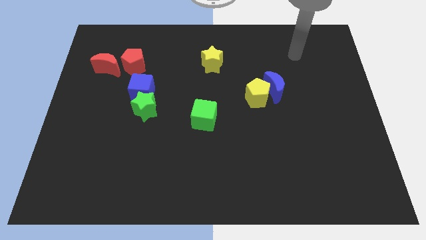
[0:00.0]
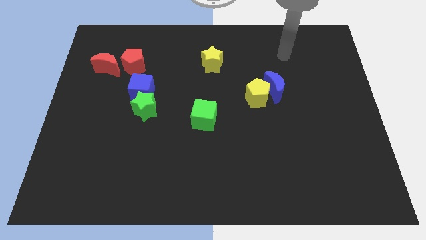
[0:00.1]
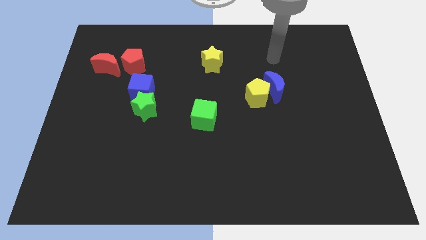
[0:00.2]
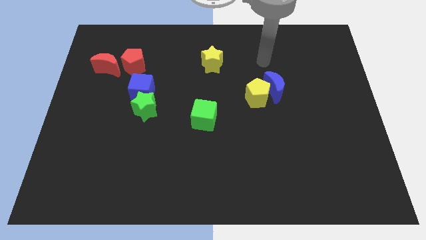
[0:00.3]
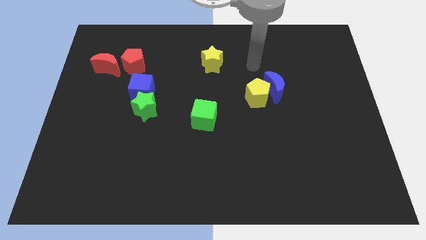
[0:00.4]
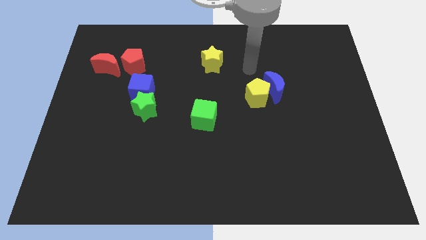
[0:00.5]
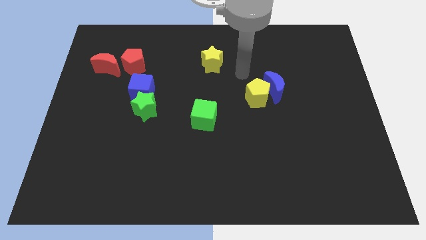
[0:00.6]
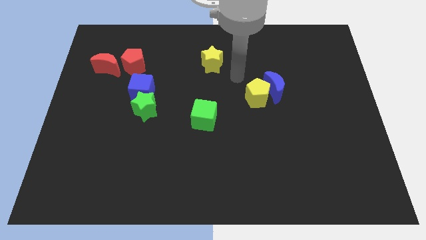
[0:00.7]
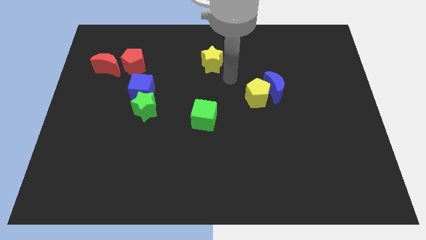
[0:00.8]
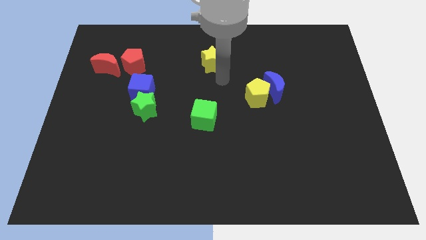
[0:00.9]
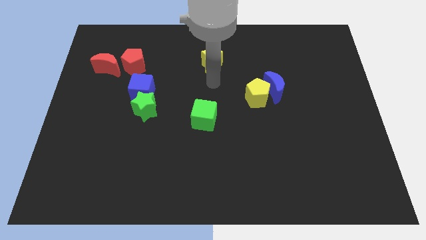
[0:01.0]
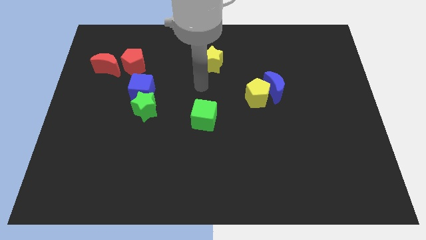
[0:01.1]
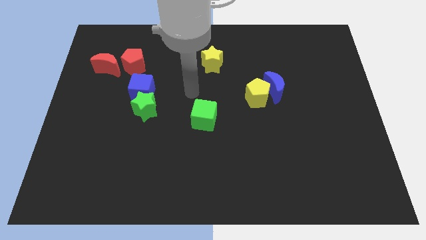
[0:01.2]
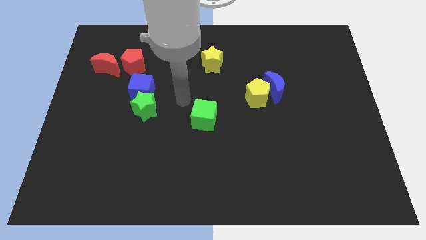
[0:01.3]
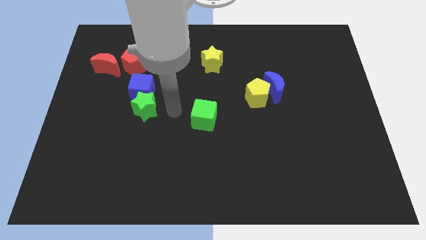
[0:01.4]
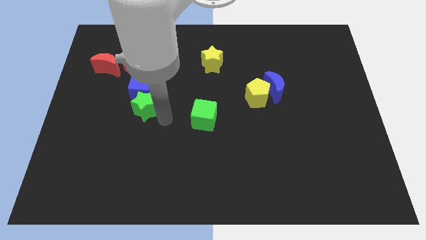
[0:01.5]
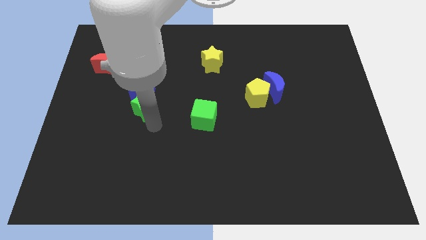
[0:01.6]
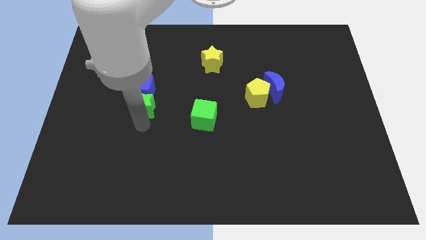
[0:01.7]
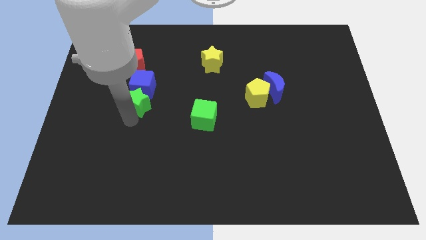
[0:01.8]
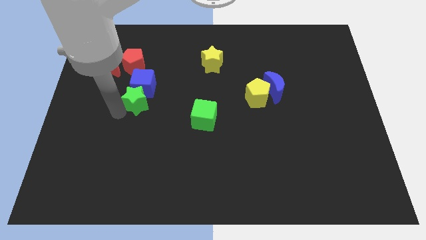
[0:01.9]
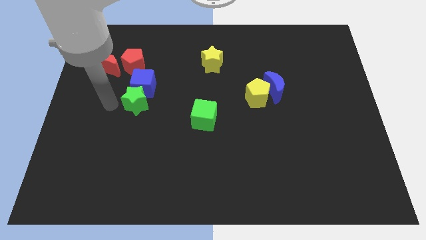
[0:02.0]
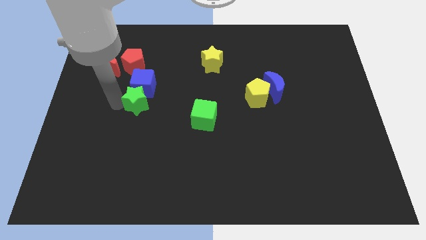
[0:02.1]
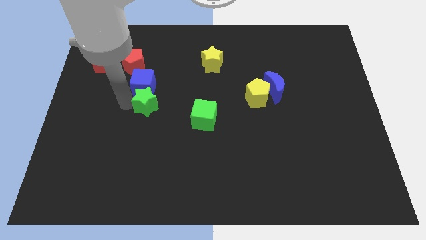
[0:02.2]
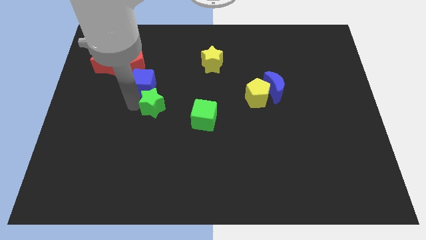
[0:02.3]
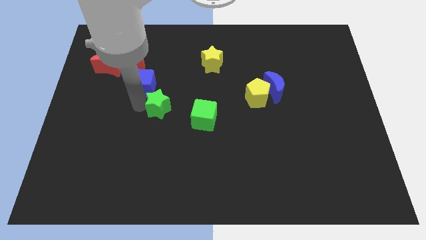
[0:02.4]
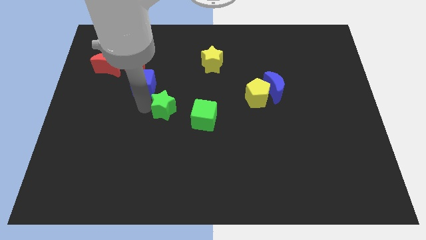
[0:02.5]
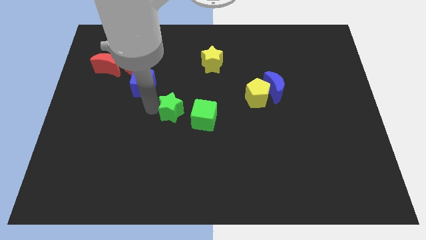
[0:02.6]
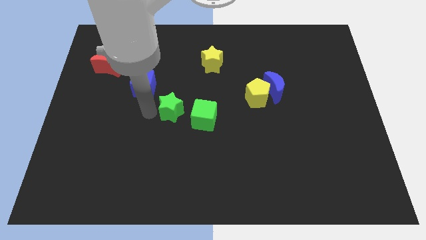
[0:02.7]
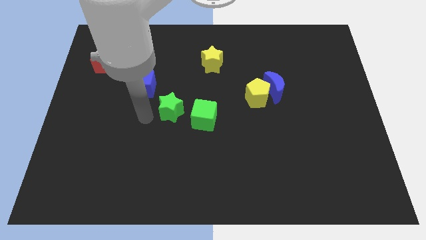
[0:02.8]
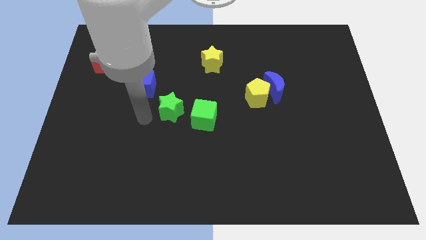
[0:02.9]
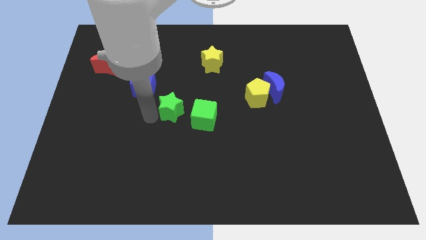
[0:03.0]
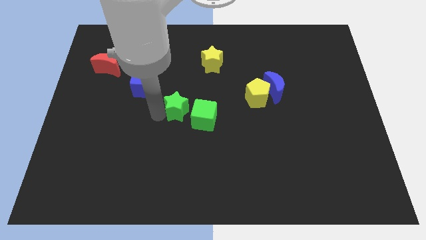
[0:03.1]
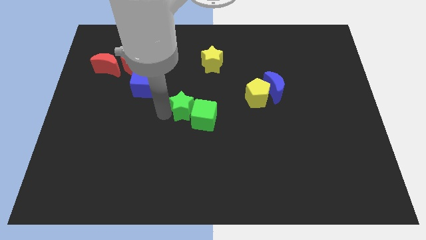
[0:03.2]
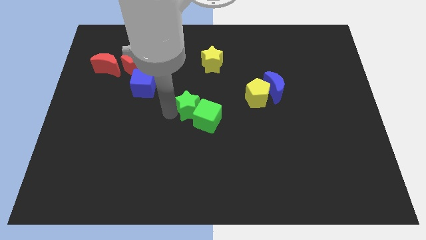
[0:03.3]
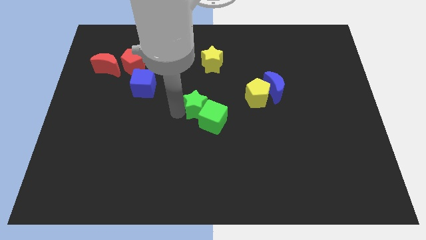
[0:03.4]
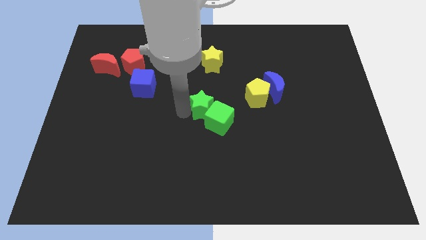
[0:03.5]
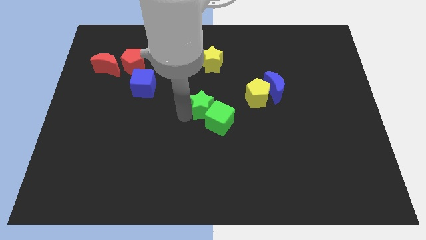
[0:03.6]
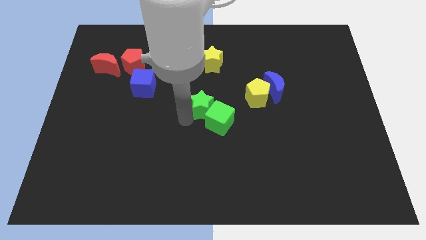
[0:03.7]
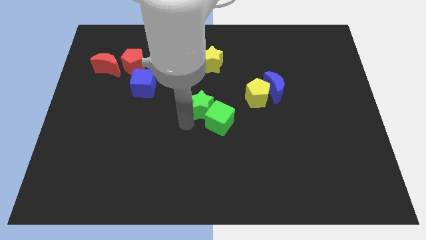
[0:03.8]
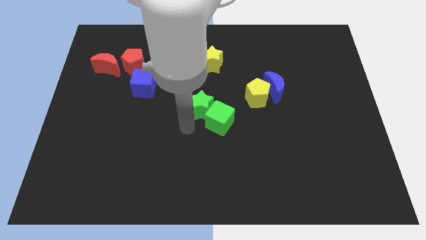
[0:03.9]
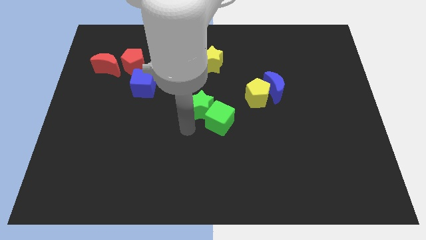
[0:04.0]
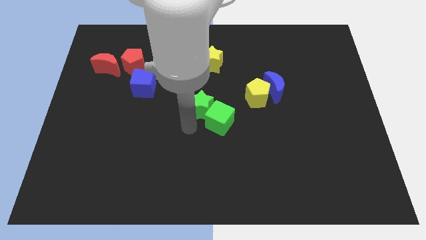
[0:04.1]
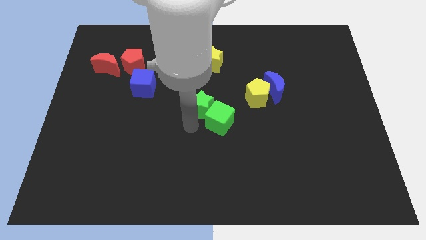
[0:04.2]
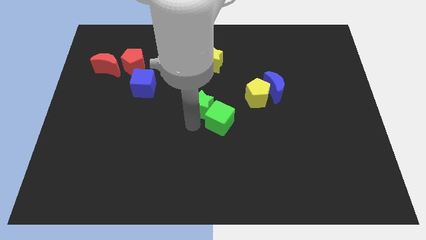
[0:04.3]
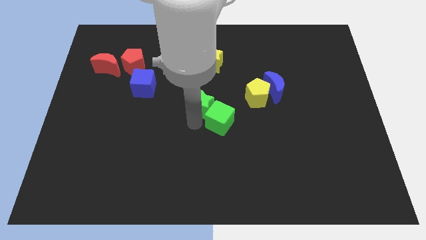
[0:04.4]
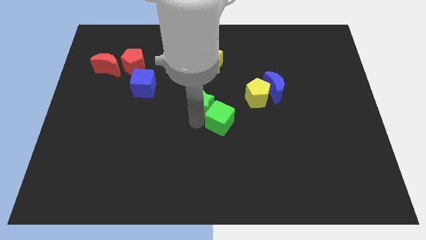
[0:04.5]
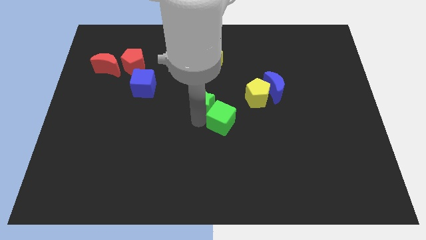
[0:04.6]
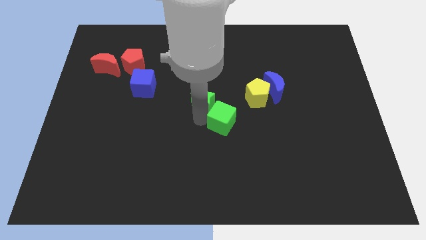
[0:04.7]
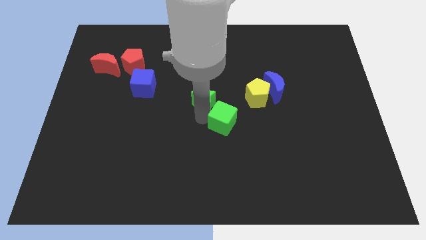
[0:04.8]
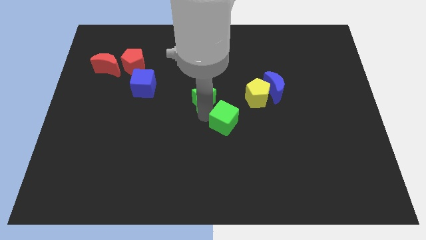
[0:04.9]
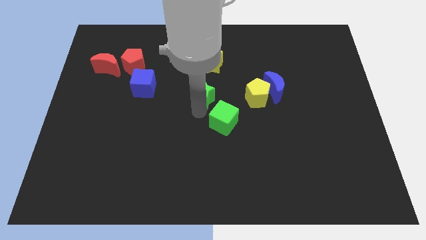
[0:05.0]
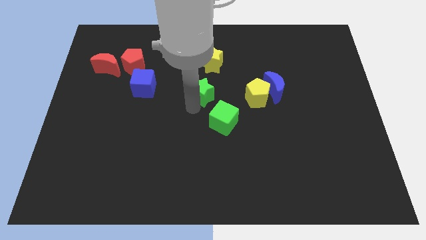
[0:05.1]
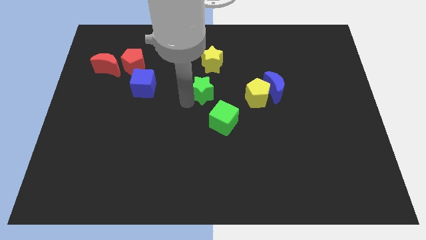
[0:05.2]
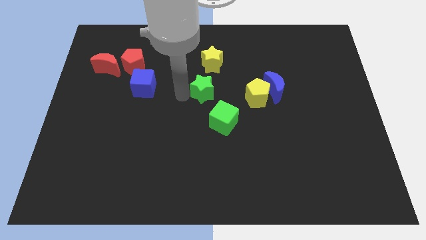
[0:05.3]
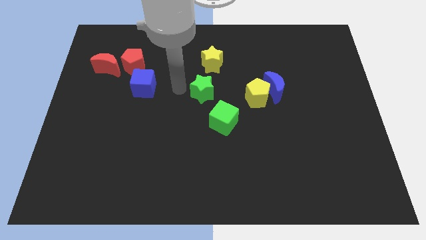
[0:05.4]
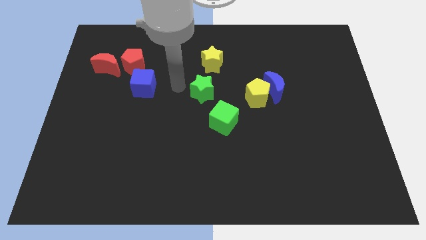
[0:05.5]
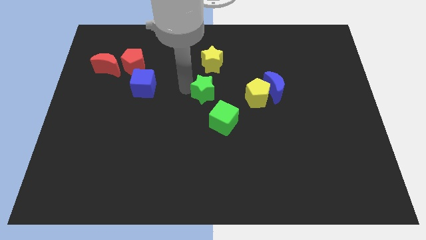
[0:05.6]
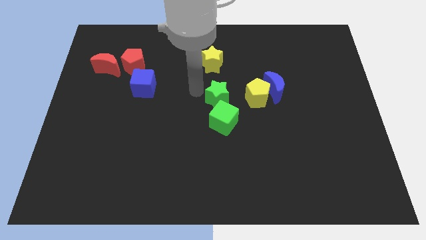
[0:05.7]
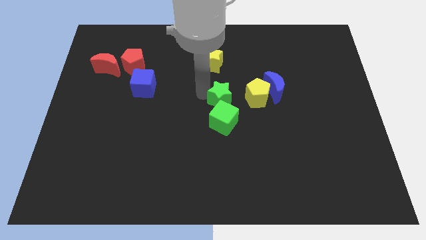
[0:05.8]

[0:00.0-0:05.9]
move the green star to the top right of the green cube

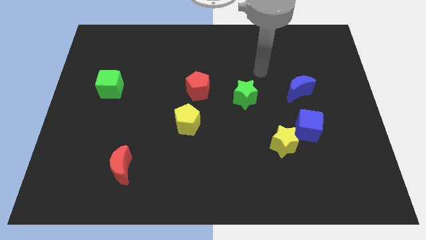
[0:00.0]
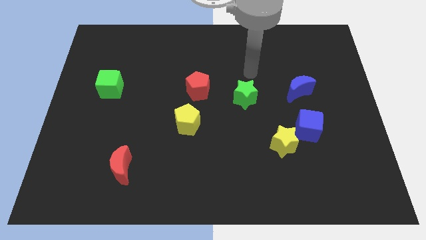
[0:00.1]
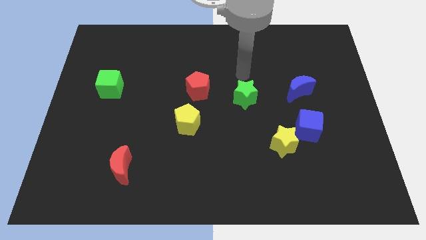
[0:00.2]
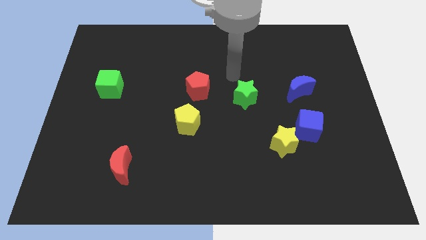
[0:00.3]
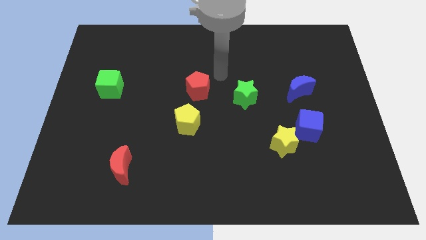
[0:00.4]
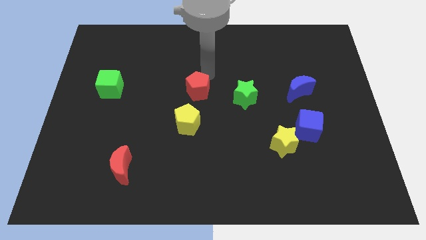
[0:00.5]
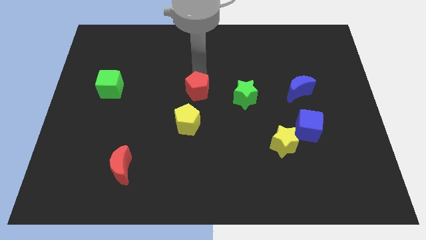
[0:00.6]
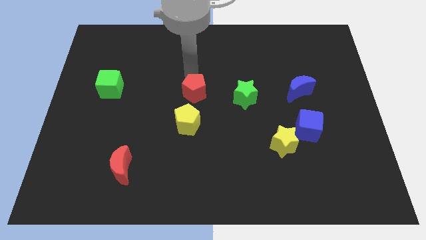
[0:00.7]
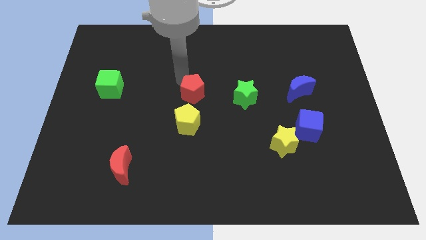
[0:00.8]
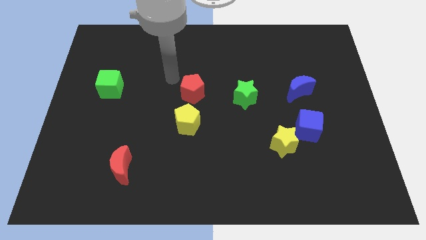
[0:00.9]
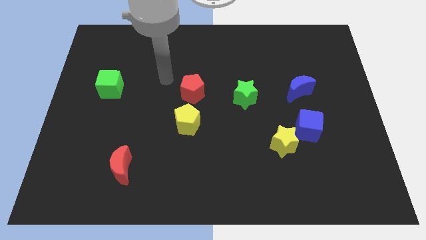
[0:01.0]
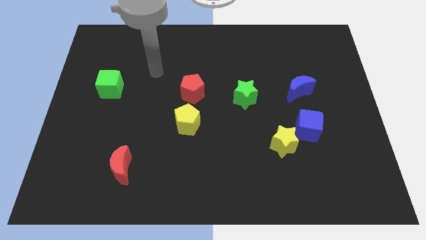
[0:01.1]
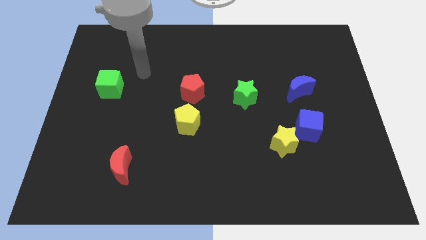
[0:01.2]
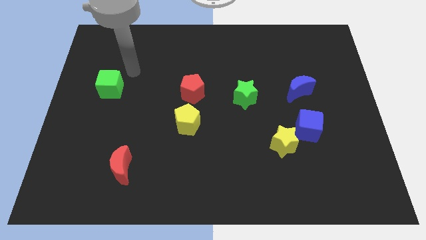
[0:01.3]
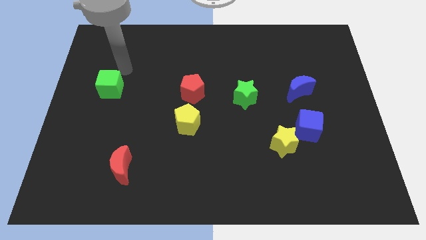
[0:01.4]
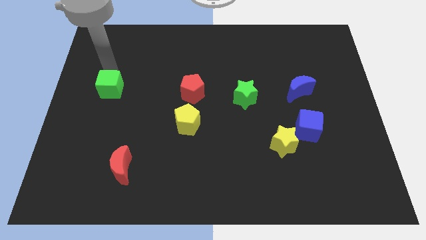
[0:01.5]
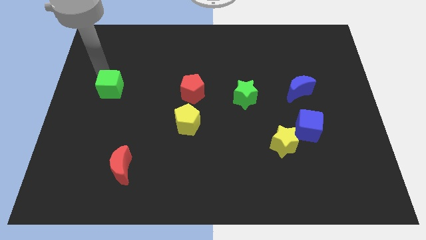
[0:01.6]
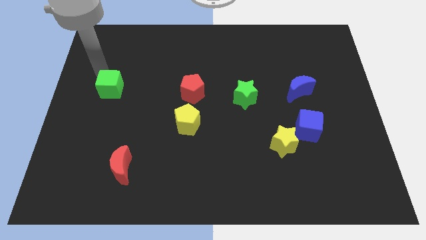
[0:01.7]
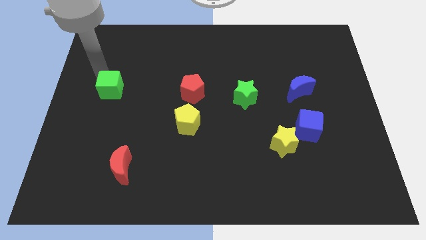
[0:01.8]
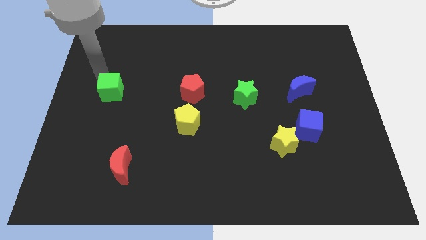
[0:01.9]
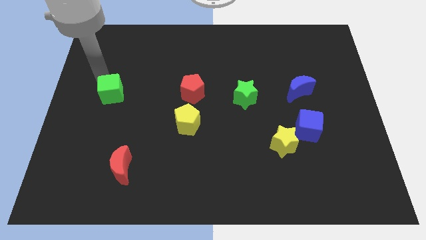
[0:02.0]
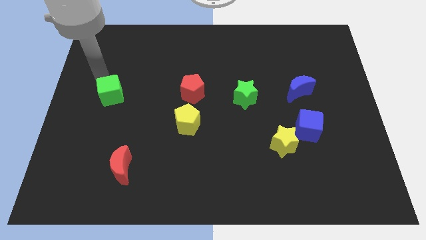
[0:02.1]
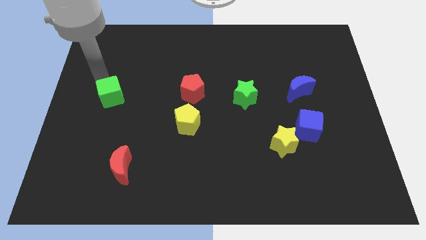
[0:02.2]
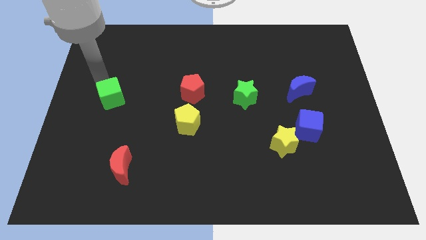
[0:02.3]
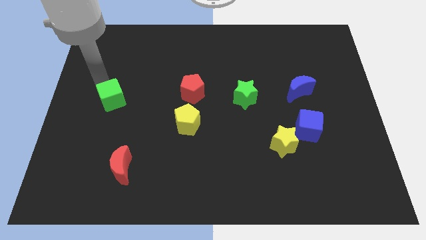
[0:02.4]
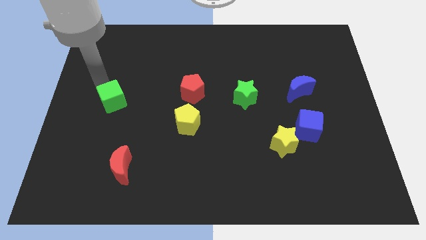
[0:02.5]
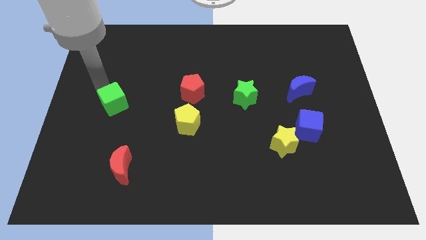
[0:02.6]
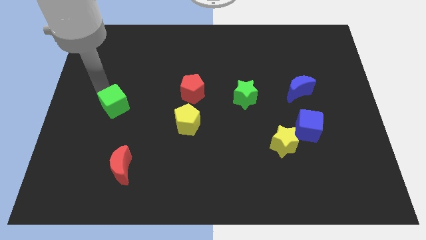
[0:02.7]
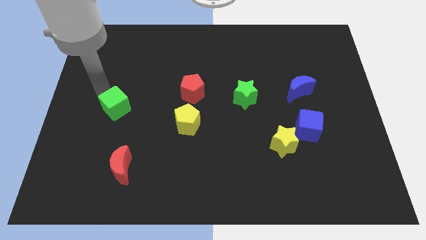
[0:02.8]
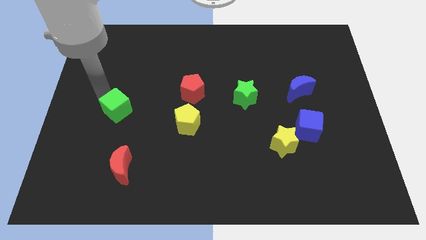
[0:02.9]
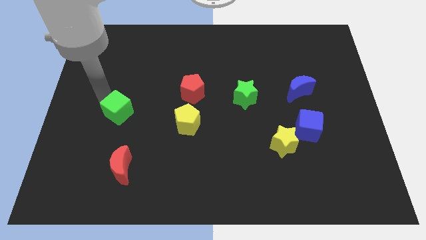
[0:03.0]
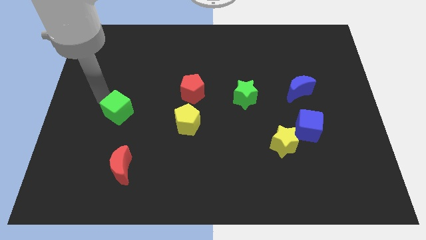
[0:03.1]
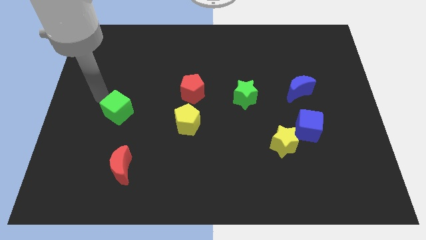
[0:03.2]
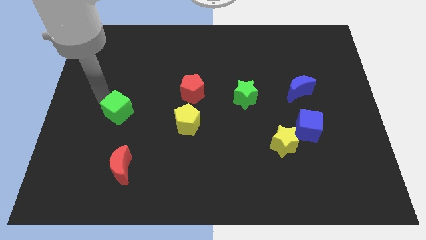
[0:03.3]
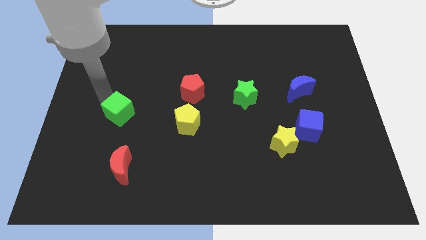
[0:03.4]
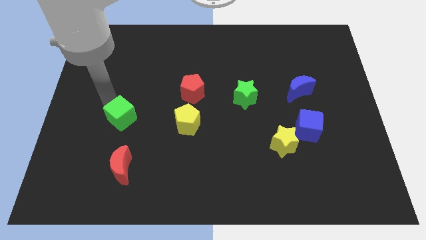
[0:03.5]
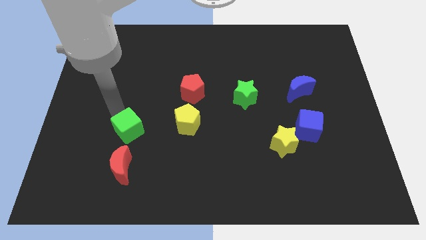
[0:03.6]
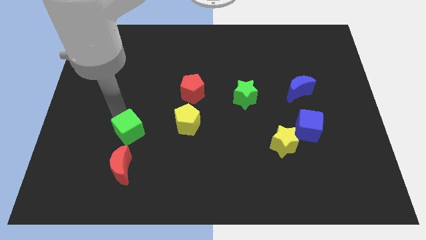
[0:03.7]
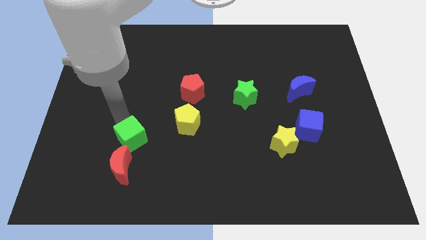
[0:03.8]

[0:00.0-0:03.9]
push the green cube to the top right side of the red moon
